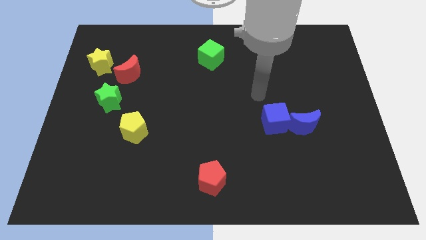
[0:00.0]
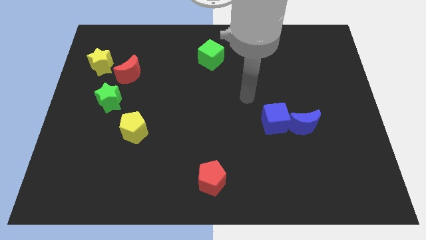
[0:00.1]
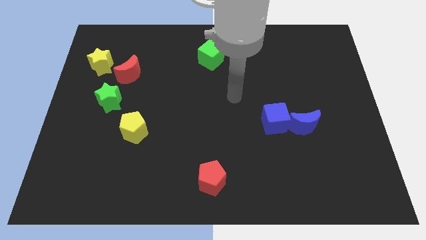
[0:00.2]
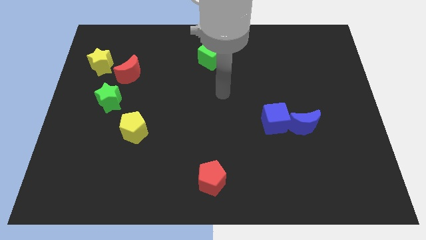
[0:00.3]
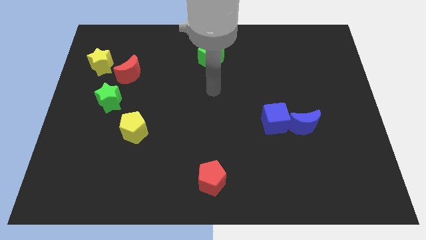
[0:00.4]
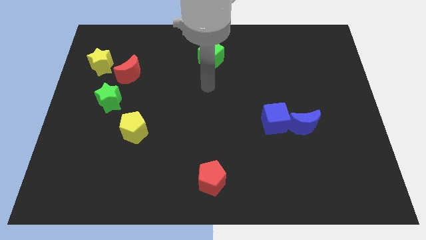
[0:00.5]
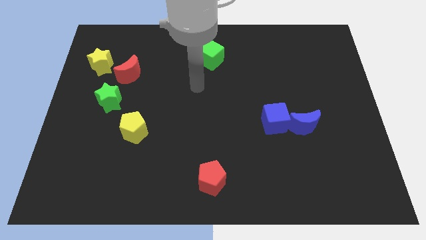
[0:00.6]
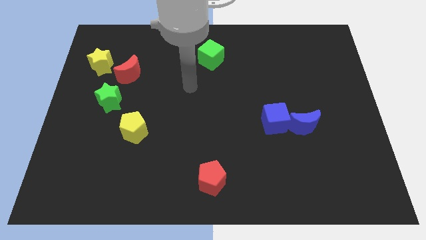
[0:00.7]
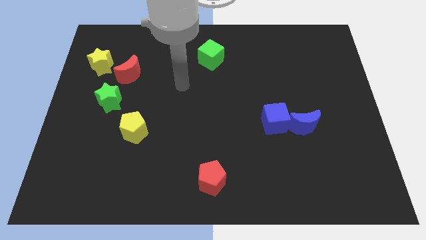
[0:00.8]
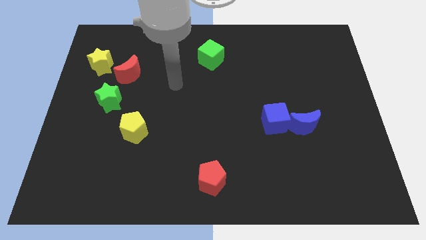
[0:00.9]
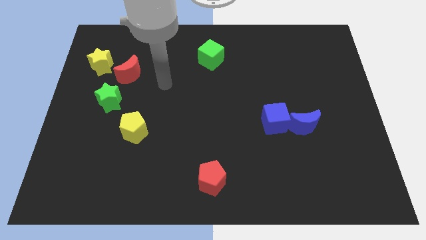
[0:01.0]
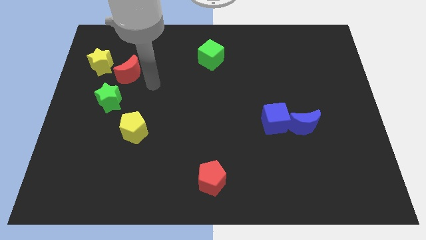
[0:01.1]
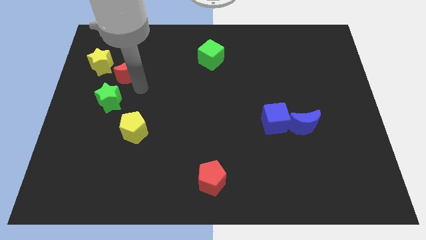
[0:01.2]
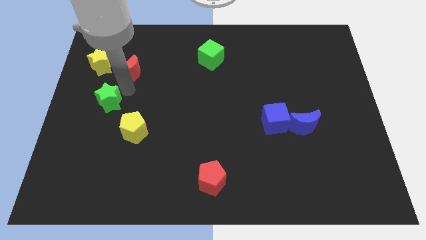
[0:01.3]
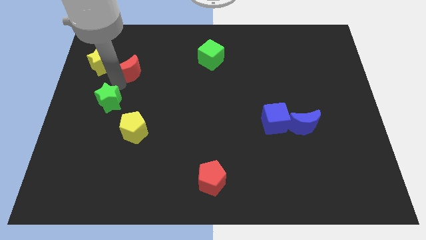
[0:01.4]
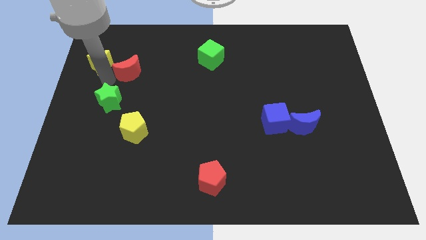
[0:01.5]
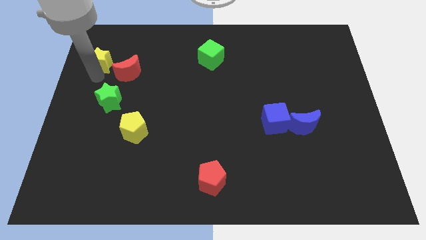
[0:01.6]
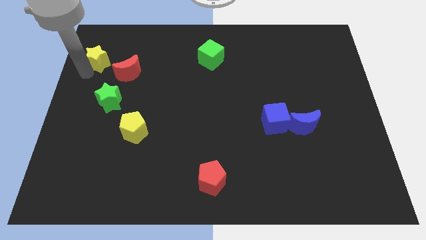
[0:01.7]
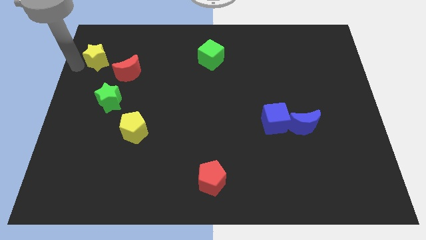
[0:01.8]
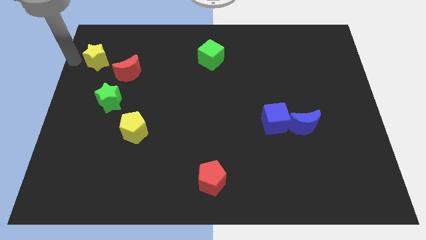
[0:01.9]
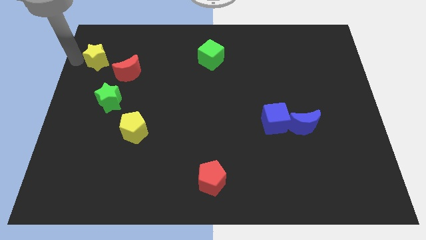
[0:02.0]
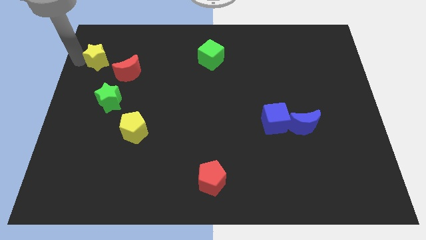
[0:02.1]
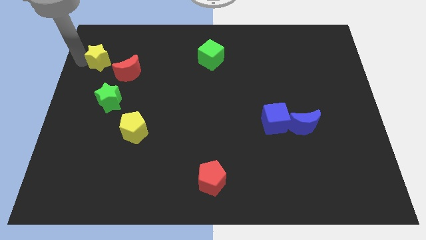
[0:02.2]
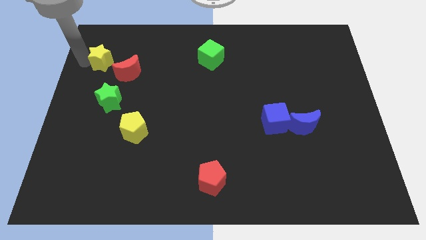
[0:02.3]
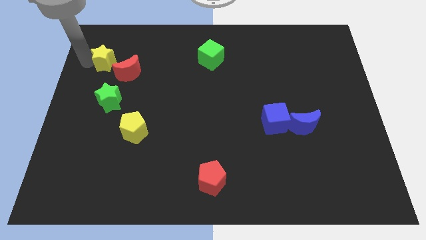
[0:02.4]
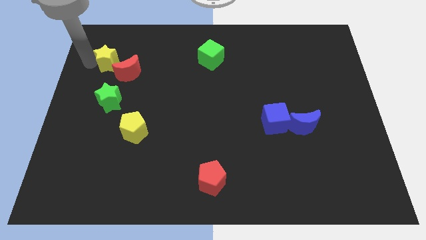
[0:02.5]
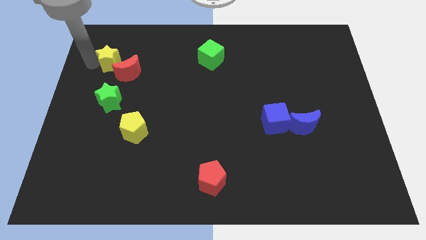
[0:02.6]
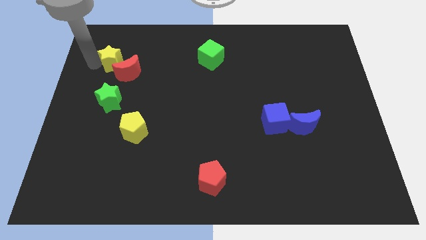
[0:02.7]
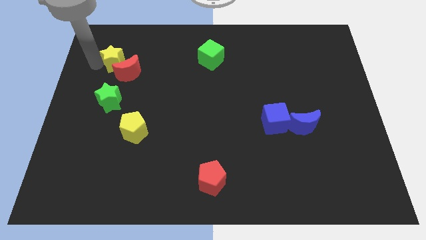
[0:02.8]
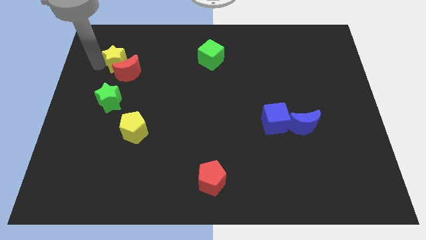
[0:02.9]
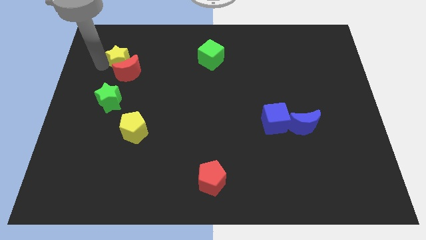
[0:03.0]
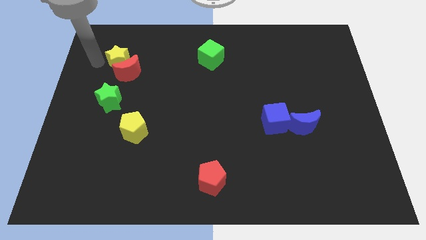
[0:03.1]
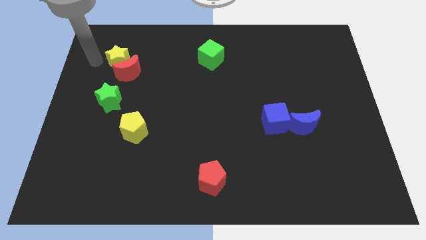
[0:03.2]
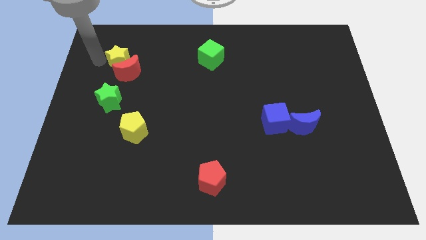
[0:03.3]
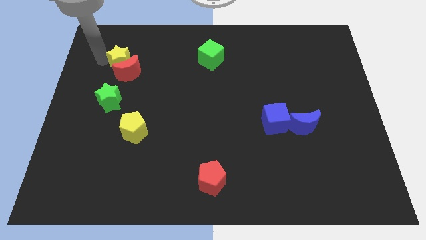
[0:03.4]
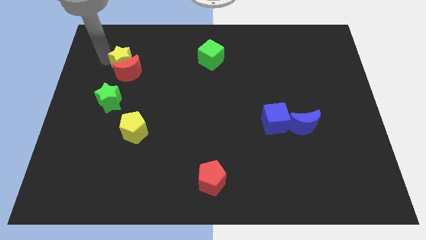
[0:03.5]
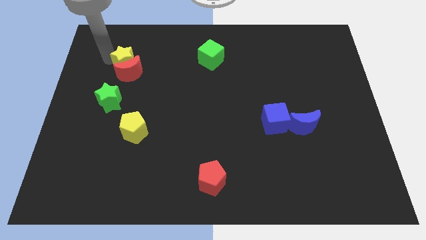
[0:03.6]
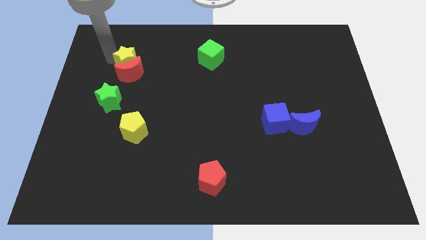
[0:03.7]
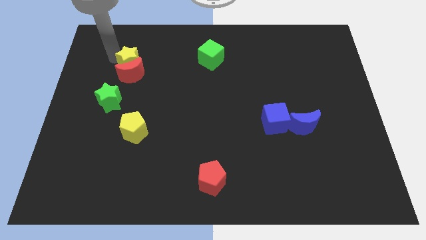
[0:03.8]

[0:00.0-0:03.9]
push the yellow star a bit to the right

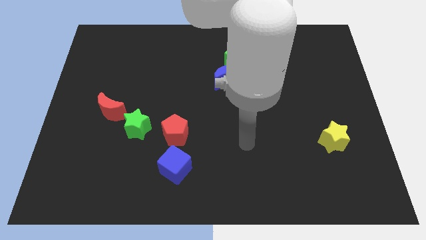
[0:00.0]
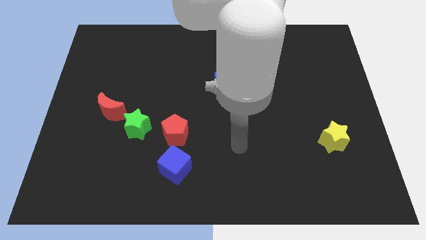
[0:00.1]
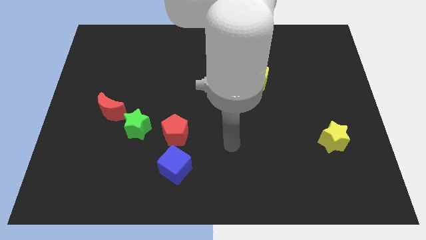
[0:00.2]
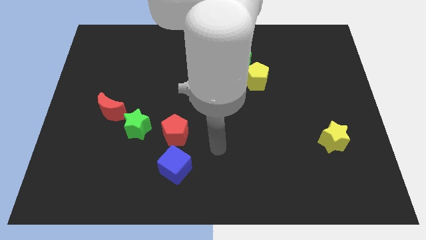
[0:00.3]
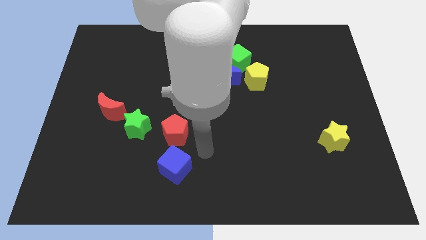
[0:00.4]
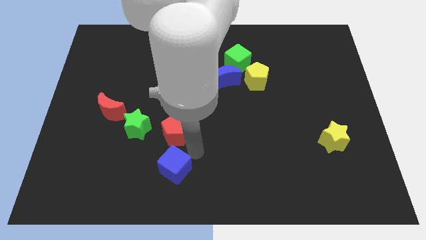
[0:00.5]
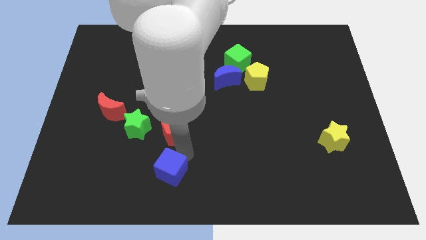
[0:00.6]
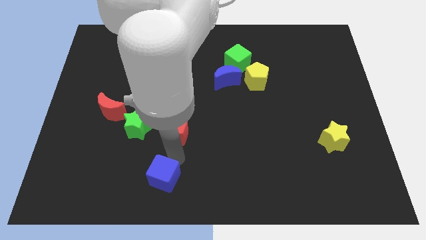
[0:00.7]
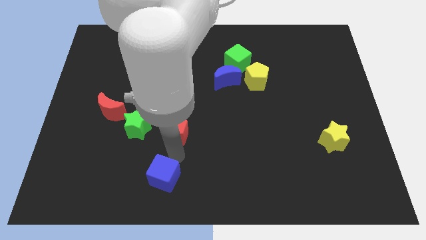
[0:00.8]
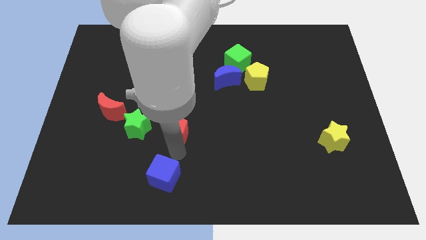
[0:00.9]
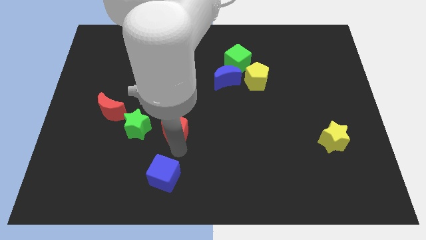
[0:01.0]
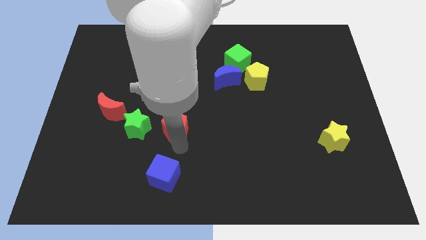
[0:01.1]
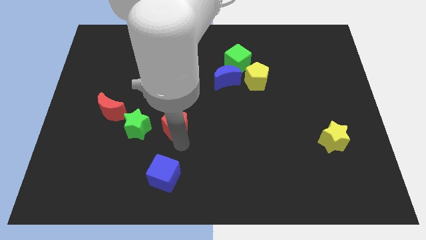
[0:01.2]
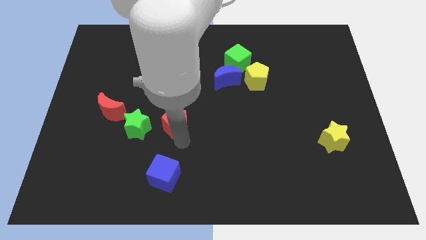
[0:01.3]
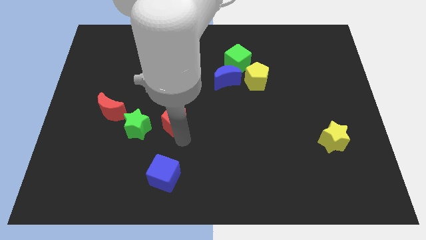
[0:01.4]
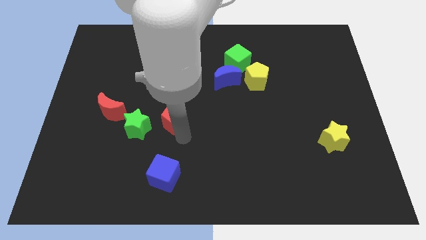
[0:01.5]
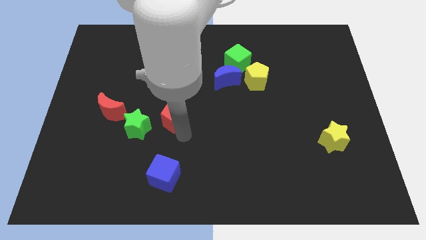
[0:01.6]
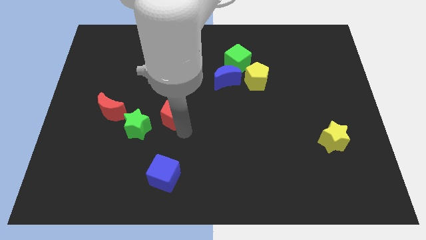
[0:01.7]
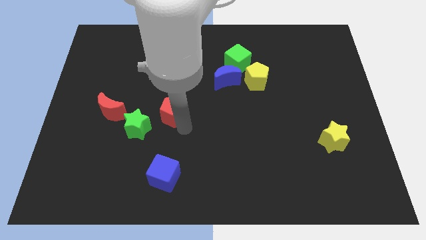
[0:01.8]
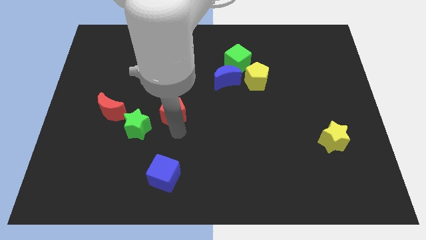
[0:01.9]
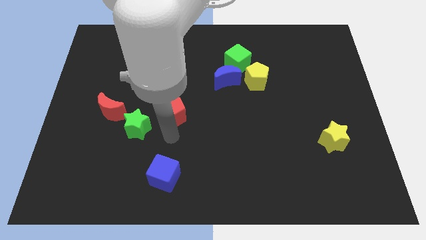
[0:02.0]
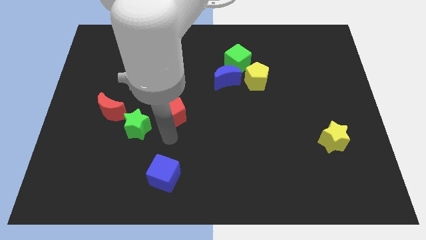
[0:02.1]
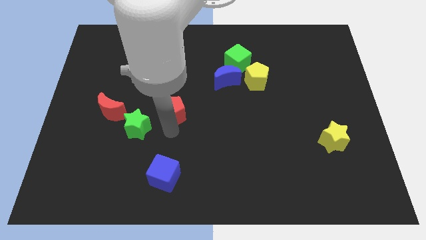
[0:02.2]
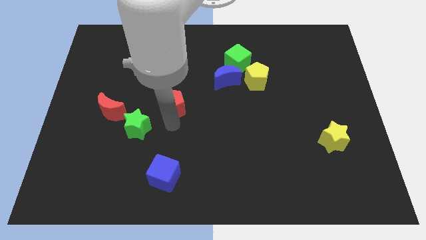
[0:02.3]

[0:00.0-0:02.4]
move the red pentagon upwards a little bit

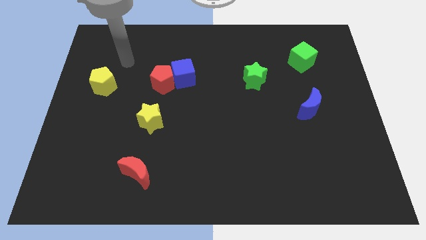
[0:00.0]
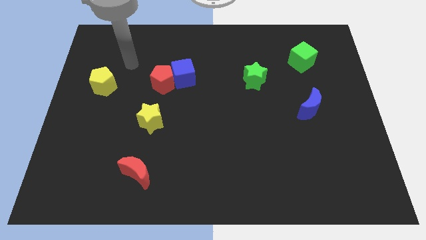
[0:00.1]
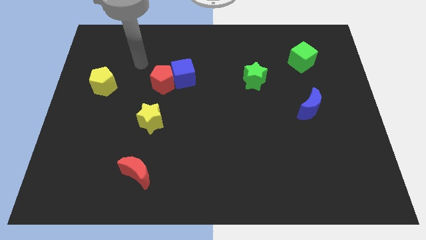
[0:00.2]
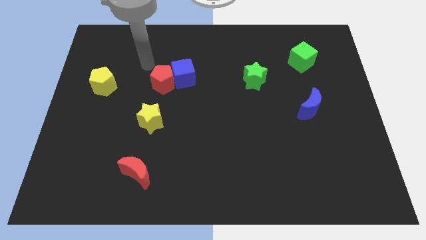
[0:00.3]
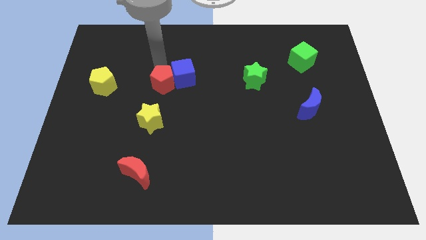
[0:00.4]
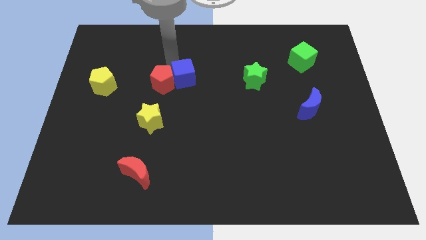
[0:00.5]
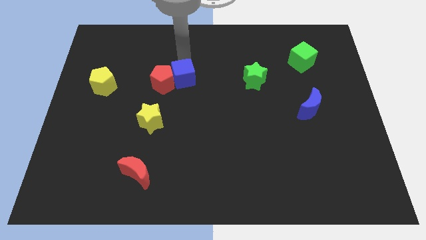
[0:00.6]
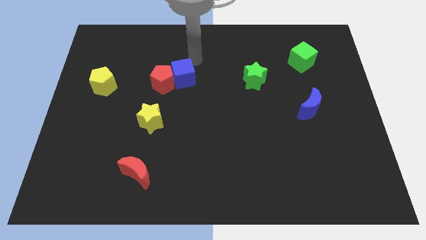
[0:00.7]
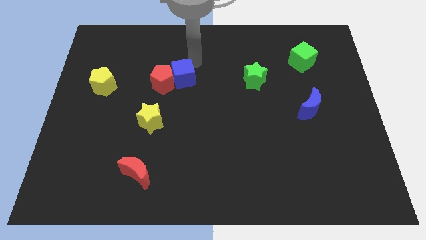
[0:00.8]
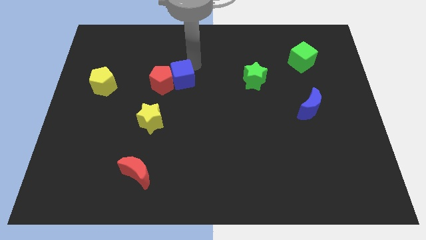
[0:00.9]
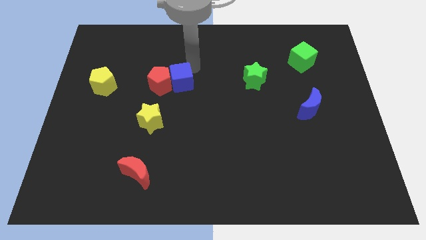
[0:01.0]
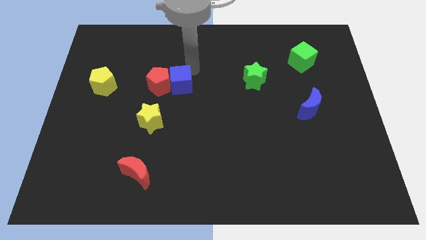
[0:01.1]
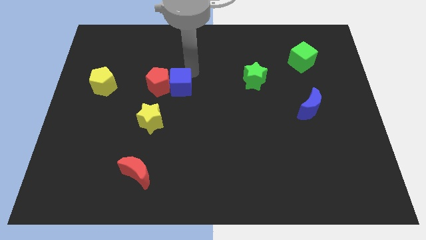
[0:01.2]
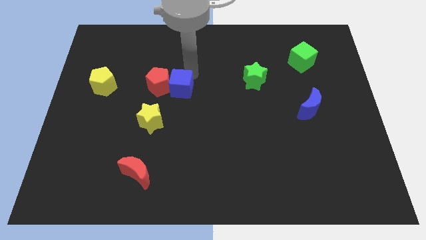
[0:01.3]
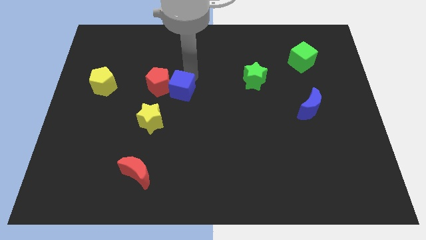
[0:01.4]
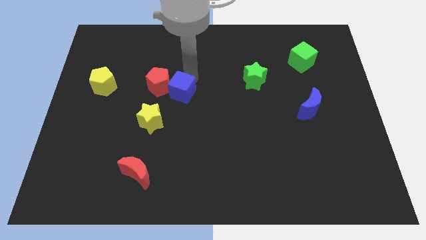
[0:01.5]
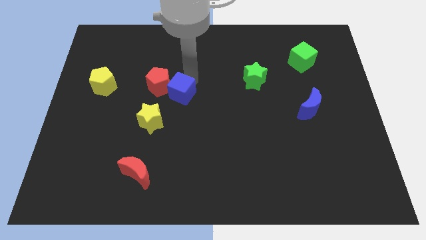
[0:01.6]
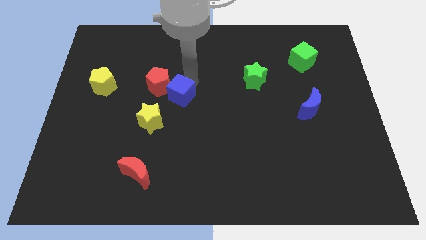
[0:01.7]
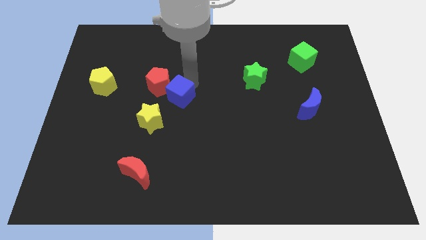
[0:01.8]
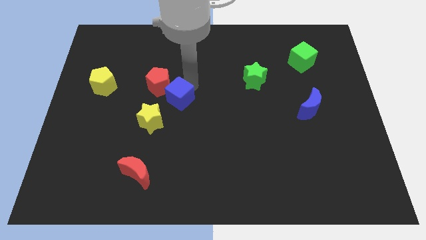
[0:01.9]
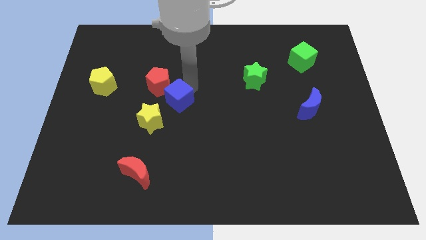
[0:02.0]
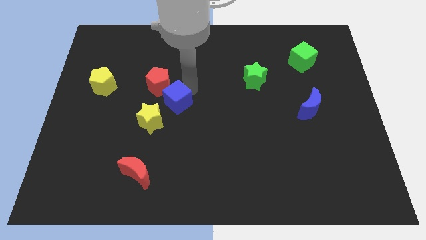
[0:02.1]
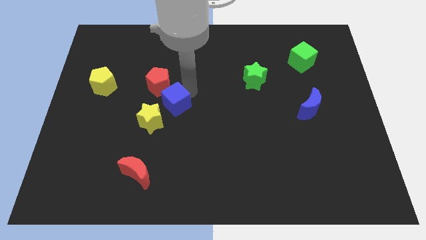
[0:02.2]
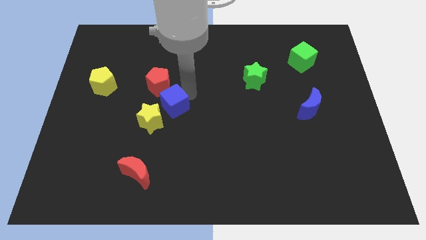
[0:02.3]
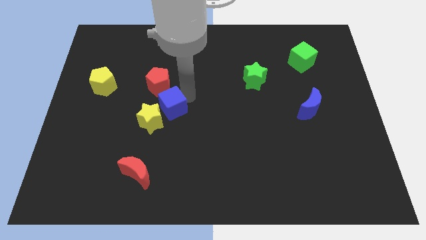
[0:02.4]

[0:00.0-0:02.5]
slide the blue cube a little diagonally downwards and to the left
